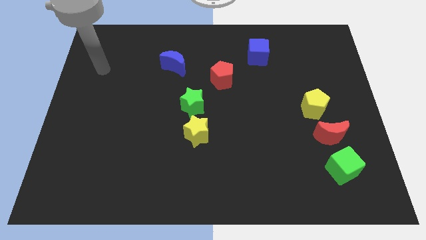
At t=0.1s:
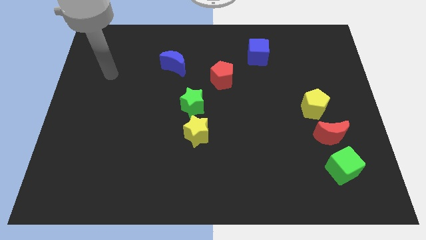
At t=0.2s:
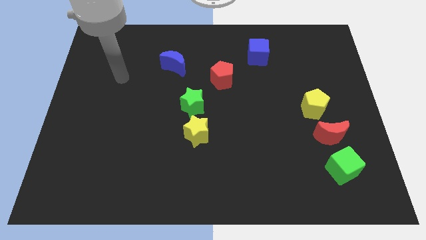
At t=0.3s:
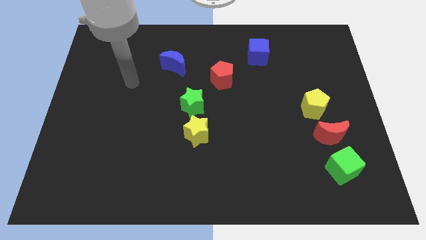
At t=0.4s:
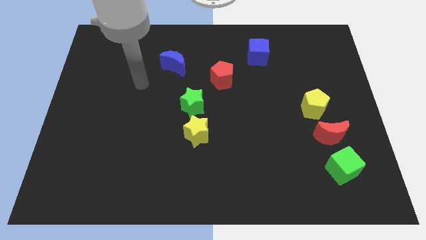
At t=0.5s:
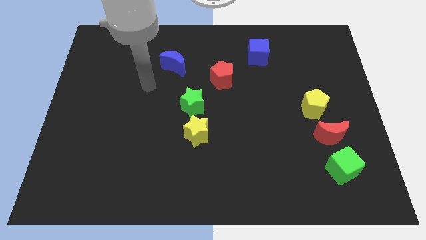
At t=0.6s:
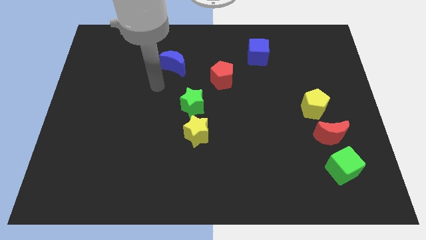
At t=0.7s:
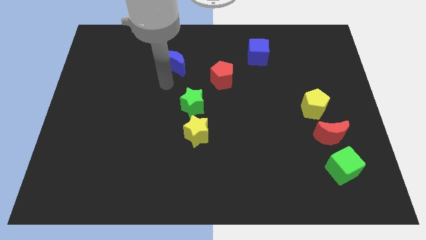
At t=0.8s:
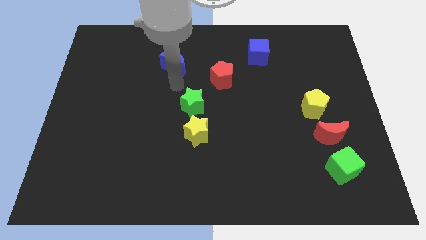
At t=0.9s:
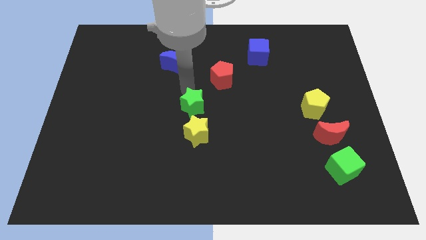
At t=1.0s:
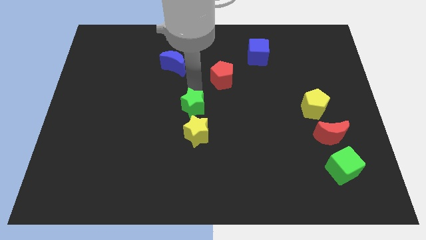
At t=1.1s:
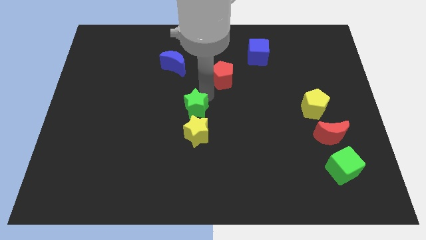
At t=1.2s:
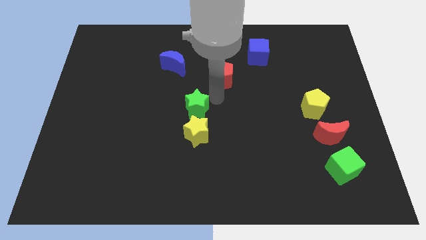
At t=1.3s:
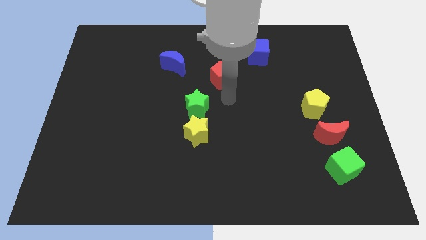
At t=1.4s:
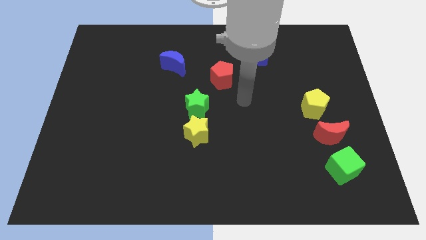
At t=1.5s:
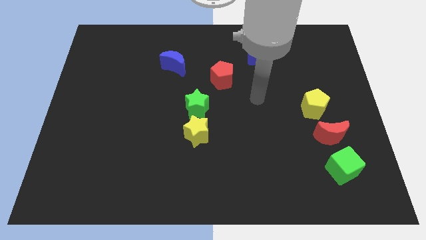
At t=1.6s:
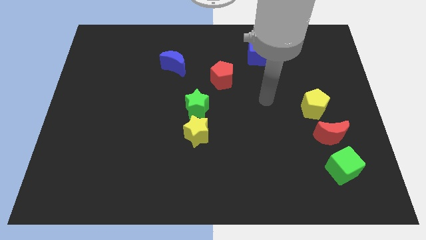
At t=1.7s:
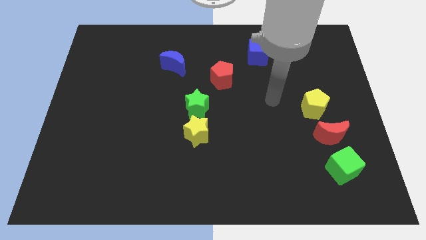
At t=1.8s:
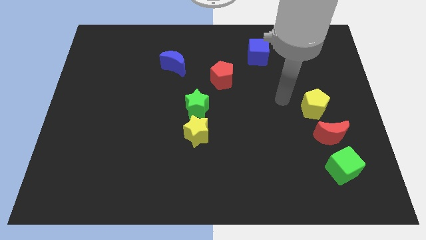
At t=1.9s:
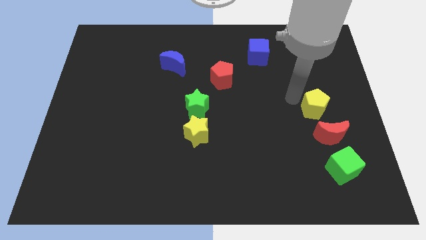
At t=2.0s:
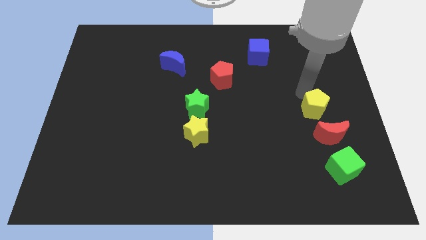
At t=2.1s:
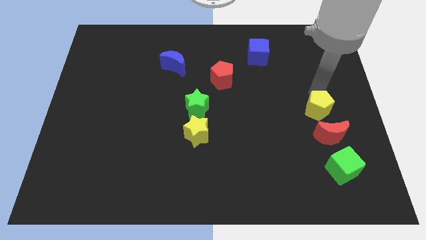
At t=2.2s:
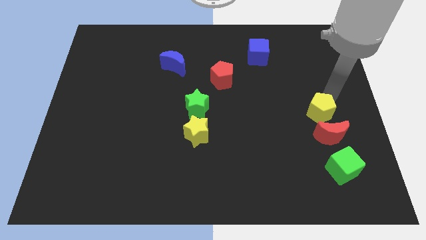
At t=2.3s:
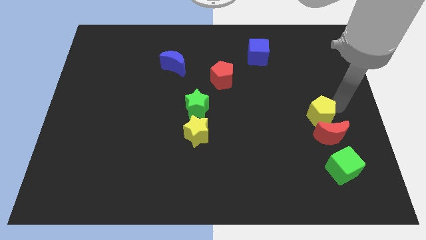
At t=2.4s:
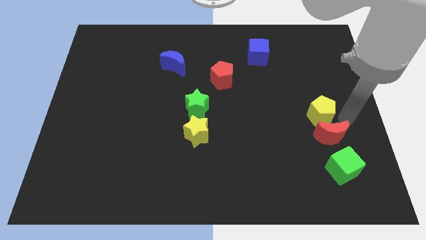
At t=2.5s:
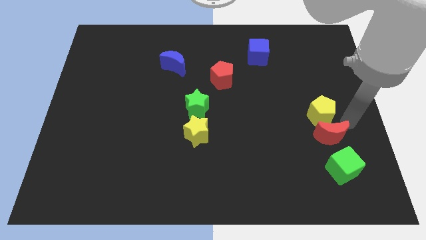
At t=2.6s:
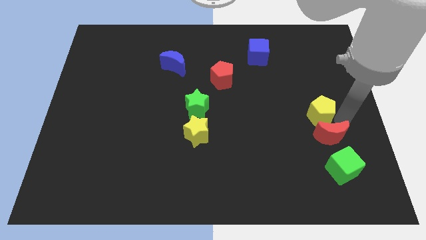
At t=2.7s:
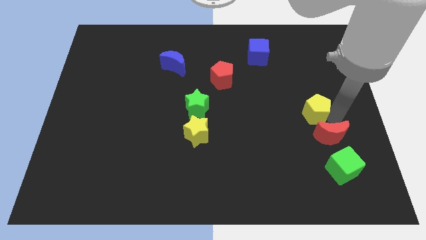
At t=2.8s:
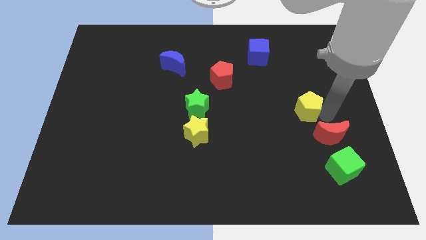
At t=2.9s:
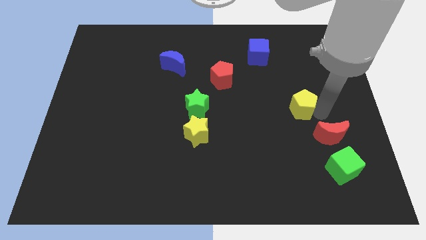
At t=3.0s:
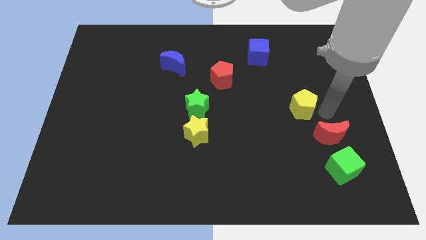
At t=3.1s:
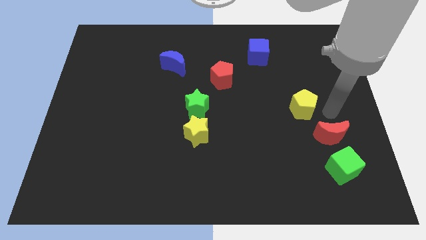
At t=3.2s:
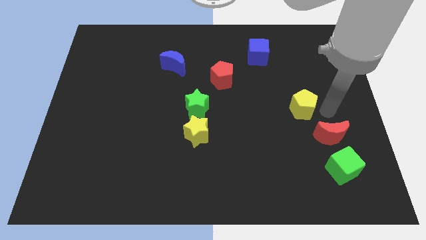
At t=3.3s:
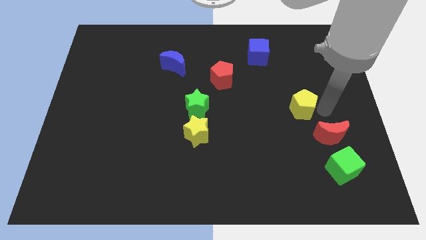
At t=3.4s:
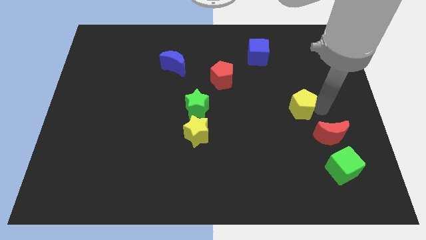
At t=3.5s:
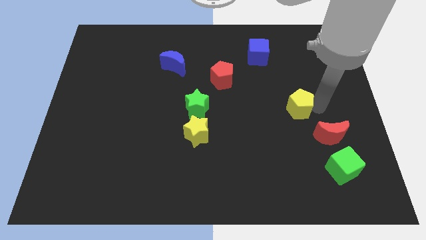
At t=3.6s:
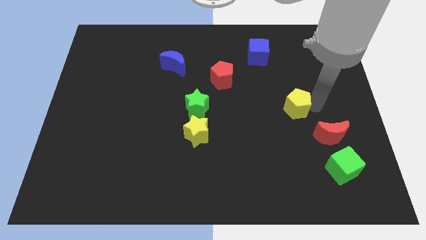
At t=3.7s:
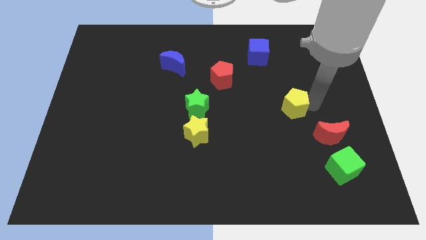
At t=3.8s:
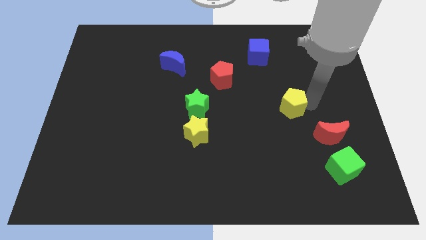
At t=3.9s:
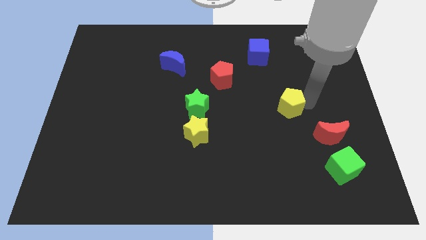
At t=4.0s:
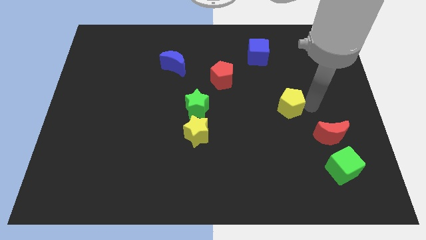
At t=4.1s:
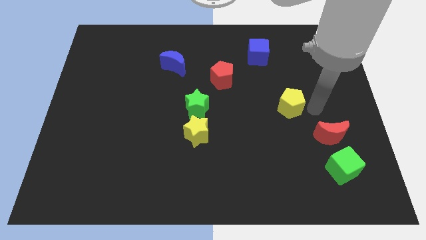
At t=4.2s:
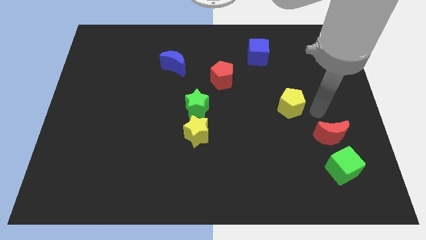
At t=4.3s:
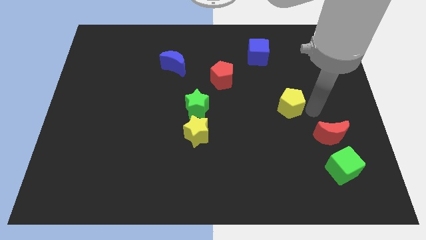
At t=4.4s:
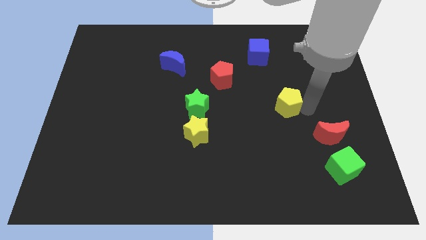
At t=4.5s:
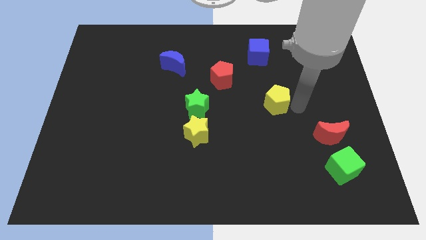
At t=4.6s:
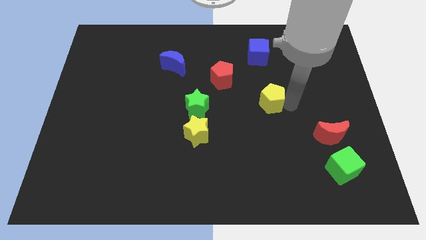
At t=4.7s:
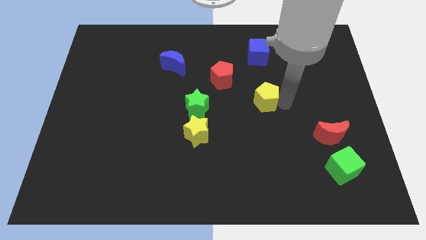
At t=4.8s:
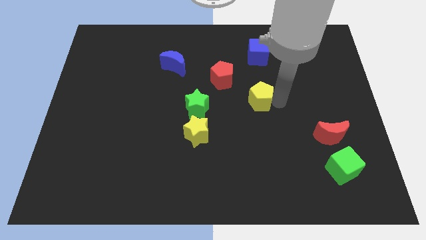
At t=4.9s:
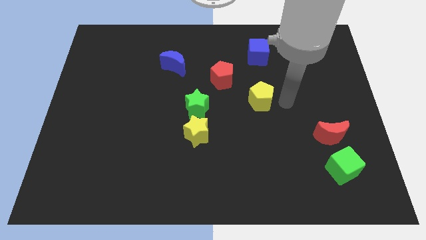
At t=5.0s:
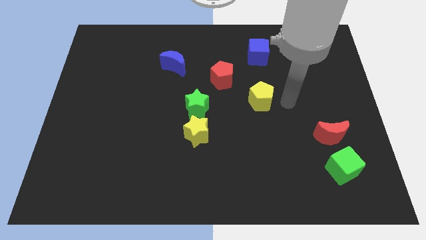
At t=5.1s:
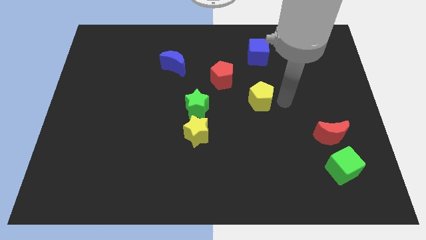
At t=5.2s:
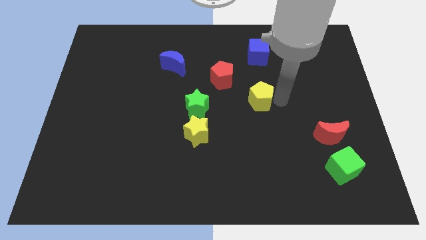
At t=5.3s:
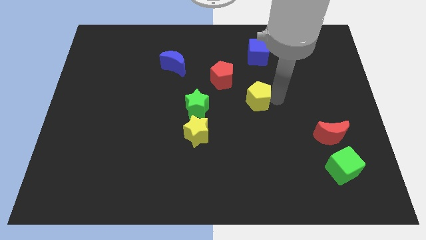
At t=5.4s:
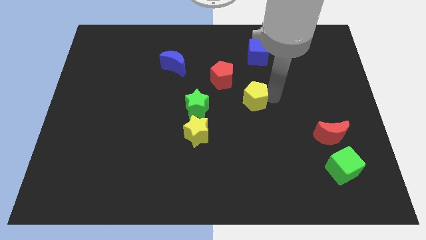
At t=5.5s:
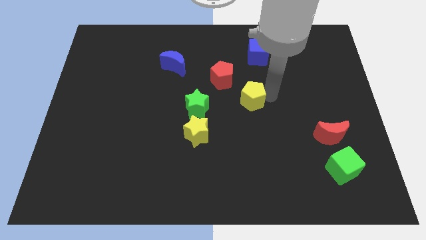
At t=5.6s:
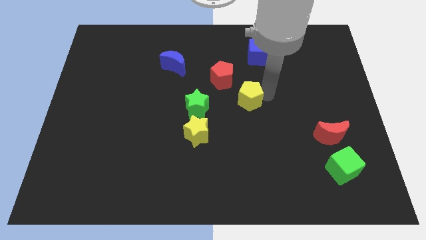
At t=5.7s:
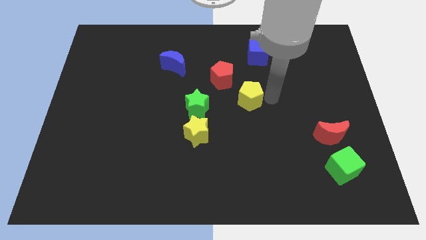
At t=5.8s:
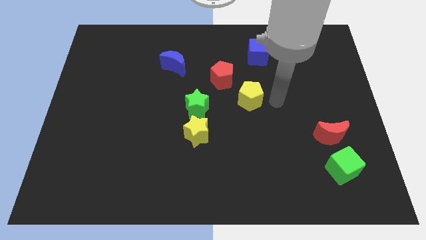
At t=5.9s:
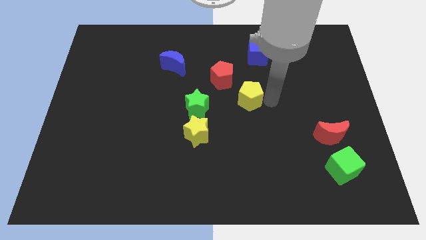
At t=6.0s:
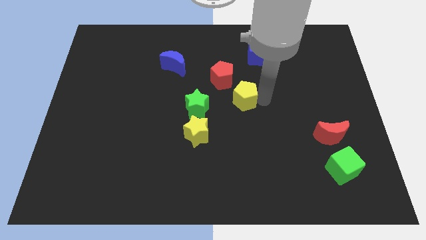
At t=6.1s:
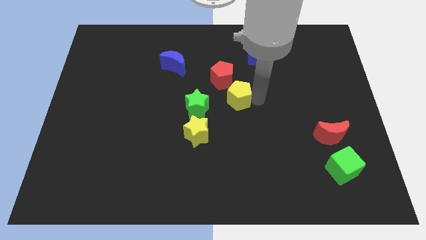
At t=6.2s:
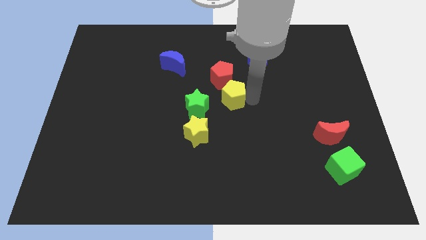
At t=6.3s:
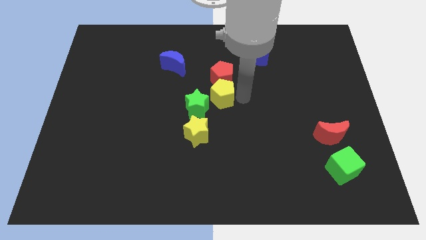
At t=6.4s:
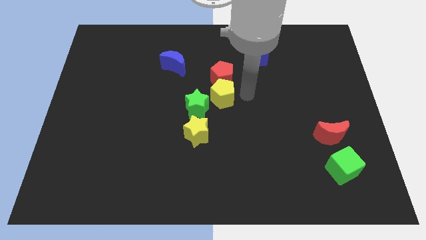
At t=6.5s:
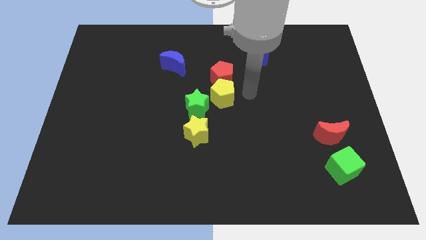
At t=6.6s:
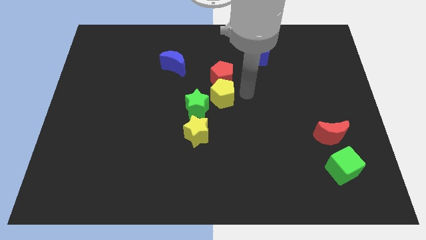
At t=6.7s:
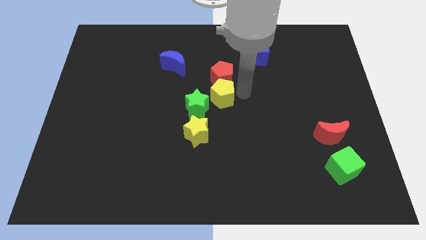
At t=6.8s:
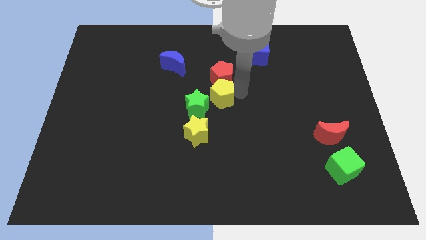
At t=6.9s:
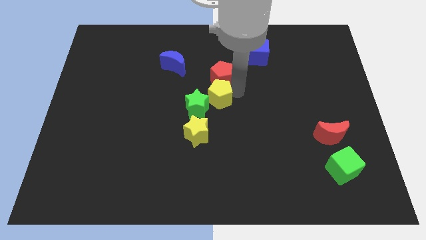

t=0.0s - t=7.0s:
move the yellow pentagon to the top of the yellow star
